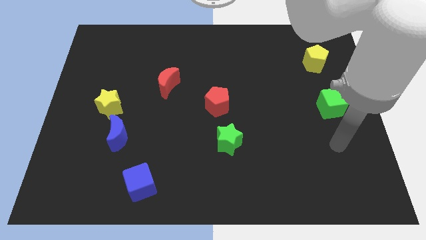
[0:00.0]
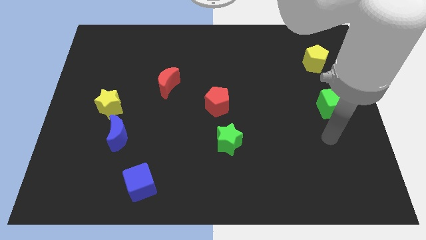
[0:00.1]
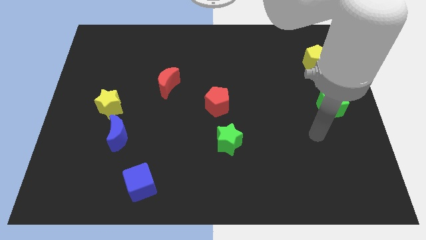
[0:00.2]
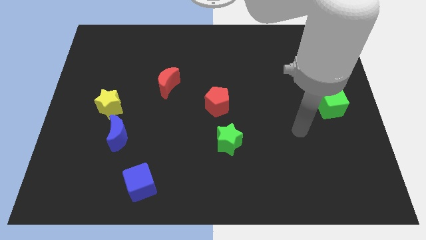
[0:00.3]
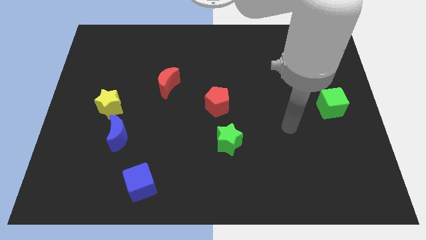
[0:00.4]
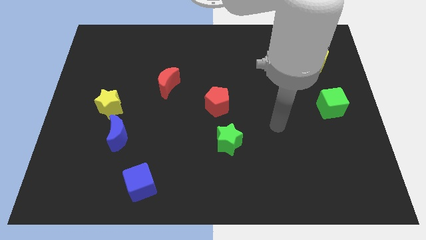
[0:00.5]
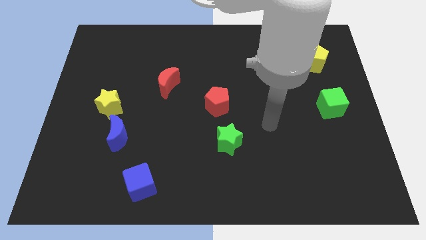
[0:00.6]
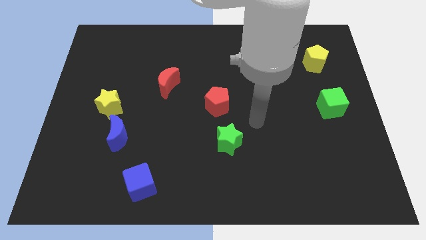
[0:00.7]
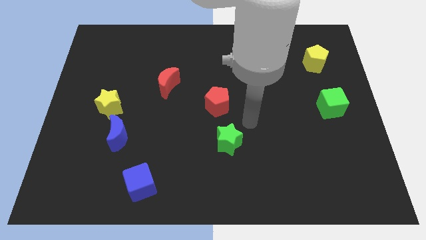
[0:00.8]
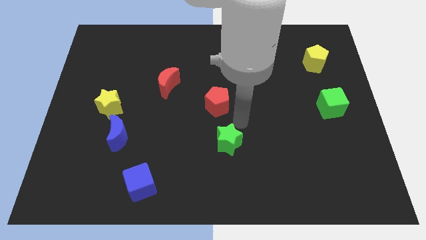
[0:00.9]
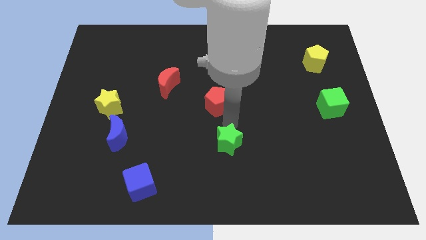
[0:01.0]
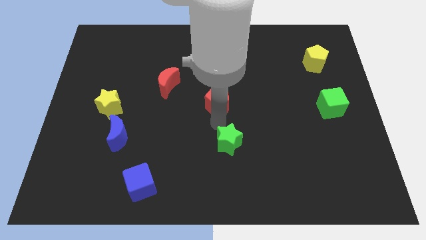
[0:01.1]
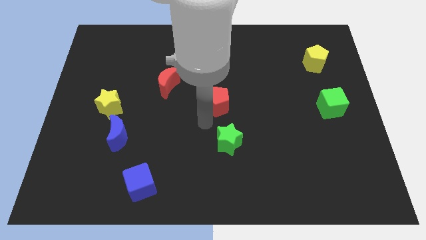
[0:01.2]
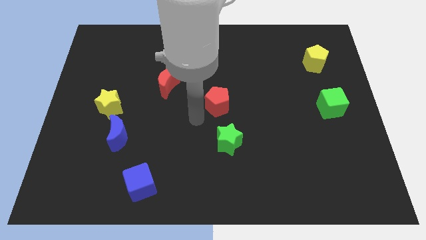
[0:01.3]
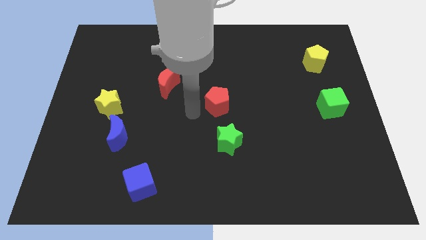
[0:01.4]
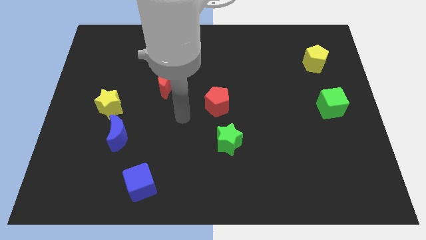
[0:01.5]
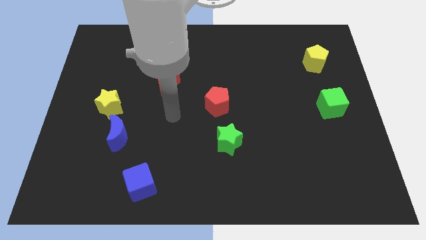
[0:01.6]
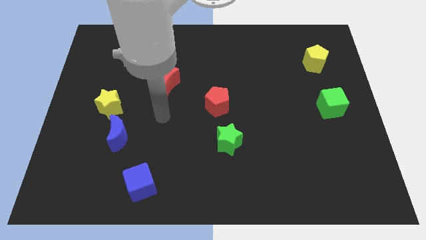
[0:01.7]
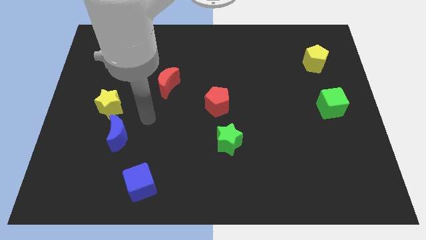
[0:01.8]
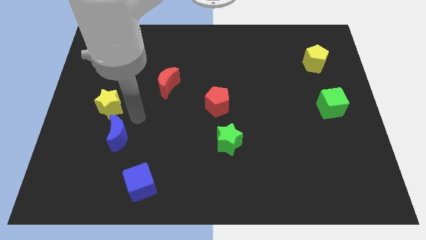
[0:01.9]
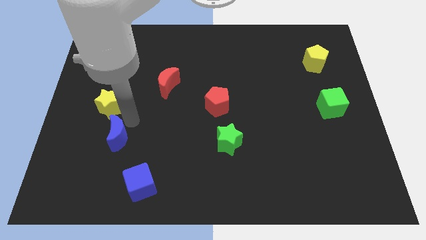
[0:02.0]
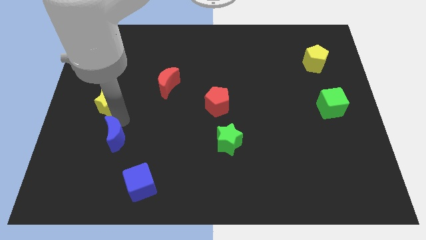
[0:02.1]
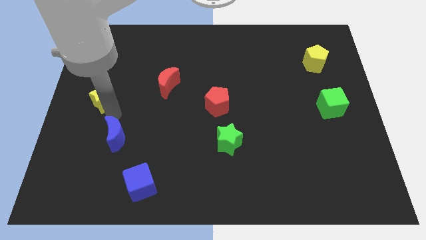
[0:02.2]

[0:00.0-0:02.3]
pull the blue moon apart from the yellow star

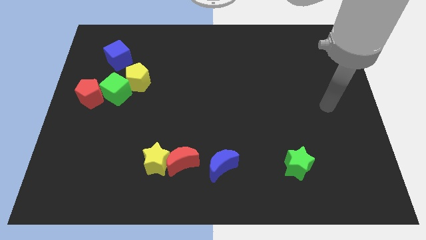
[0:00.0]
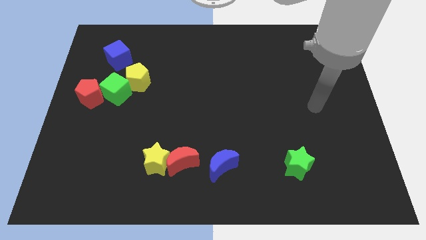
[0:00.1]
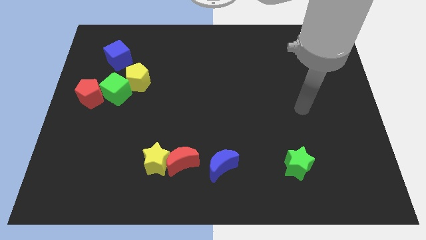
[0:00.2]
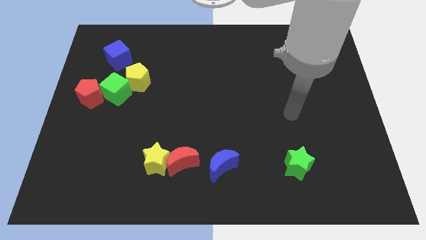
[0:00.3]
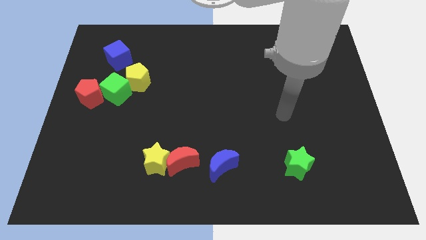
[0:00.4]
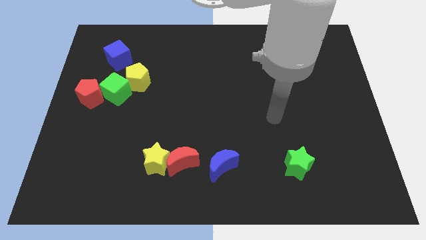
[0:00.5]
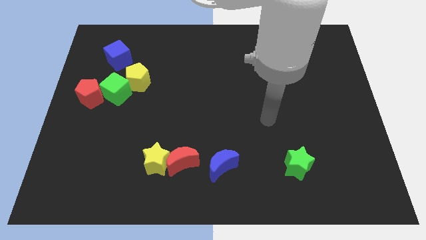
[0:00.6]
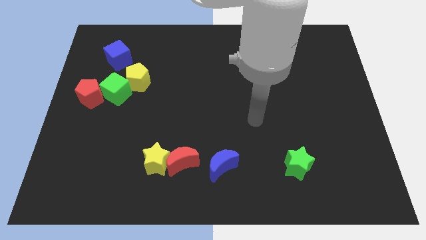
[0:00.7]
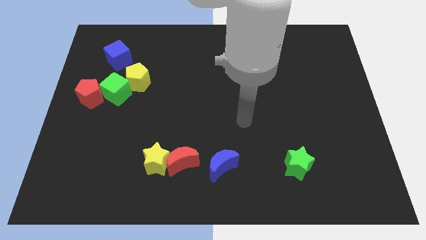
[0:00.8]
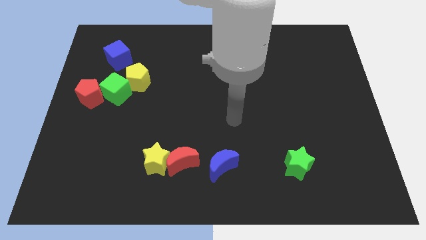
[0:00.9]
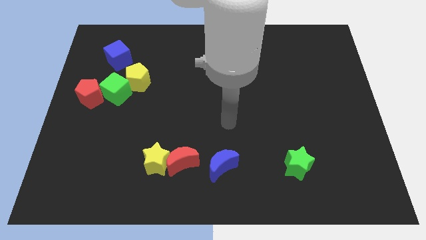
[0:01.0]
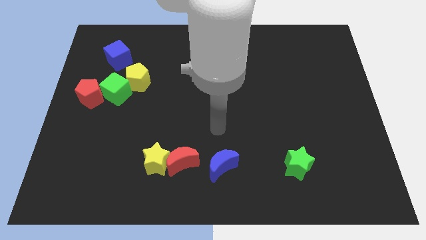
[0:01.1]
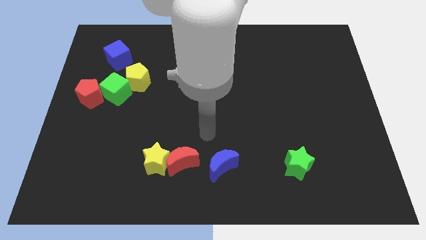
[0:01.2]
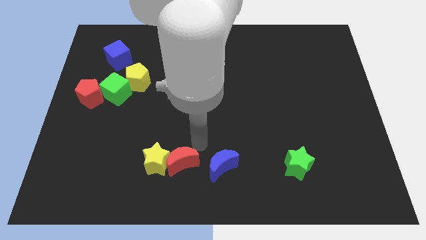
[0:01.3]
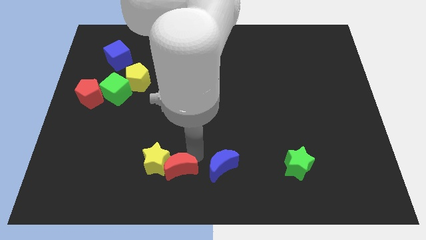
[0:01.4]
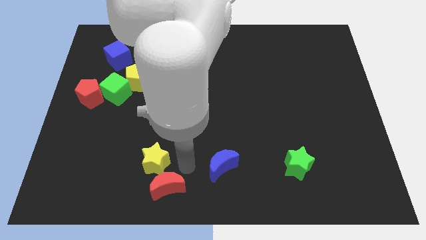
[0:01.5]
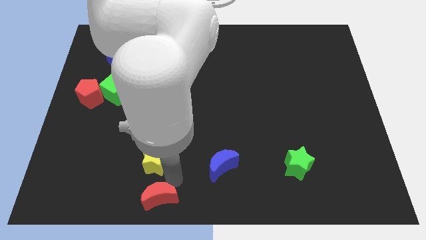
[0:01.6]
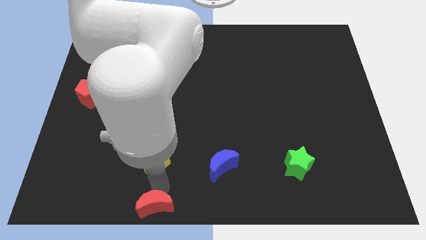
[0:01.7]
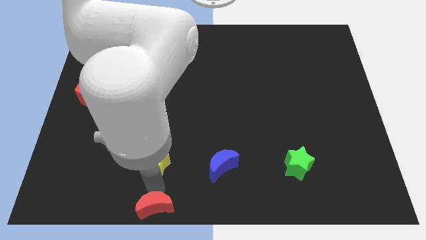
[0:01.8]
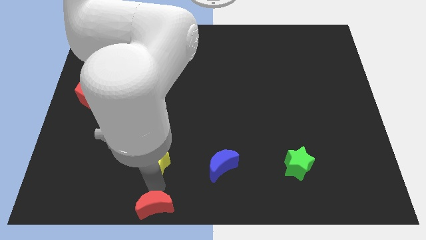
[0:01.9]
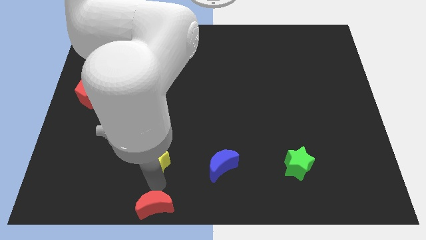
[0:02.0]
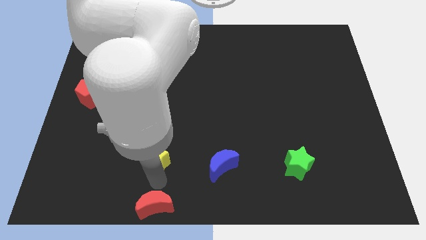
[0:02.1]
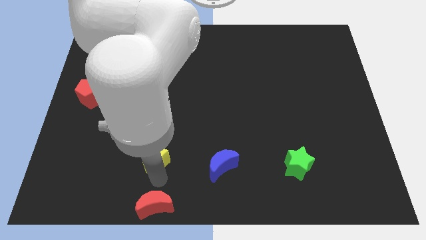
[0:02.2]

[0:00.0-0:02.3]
move the yellow star away from the red moon

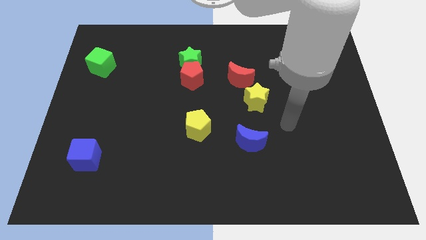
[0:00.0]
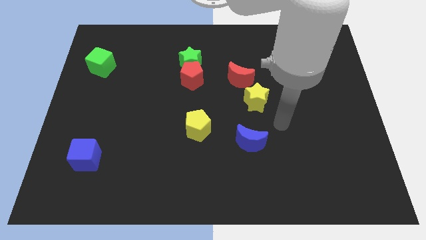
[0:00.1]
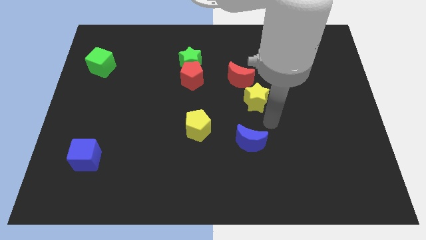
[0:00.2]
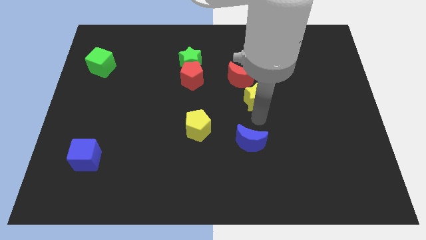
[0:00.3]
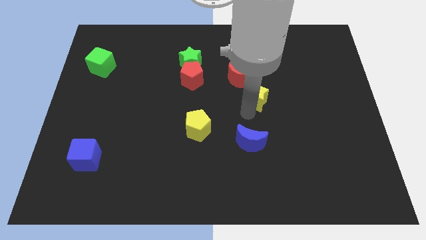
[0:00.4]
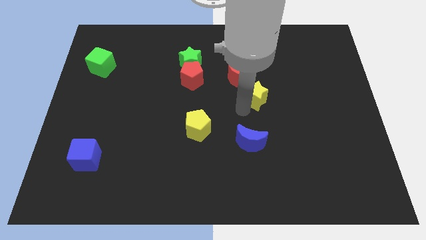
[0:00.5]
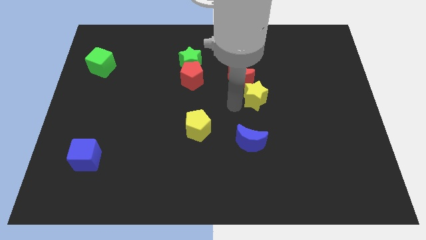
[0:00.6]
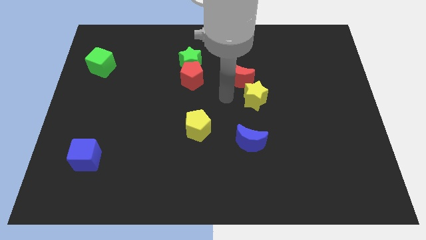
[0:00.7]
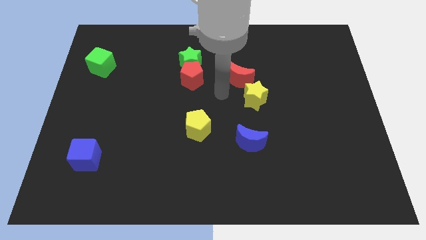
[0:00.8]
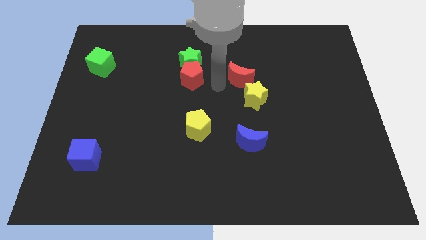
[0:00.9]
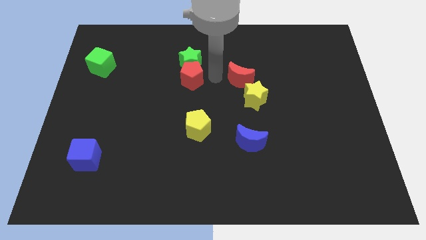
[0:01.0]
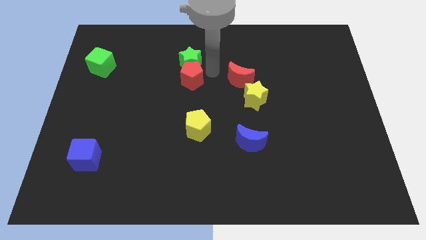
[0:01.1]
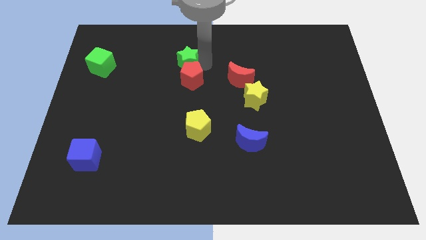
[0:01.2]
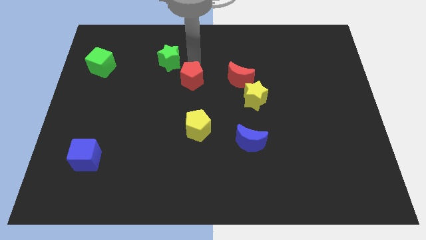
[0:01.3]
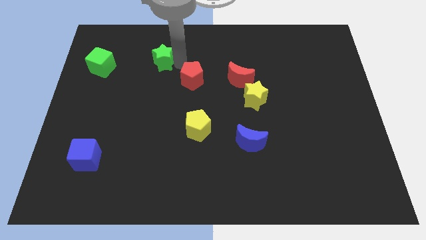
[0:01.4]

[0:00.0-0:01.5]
pull the red pentagon apart from the green star

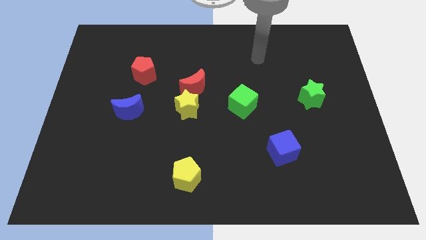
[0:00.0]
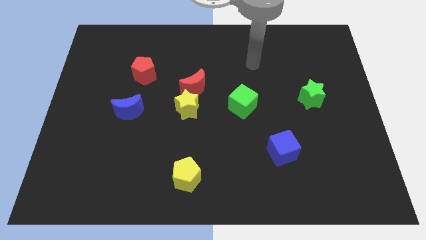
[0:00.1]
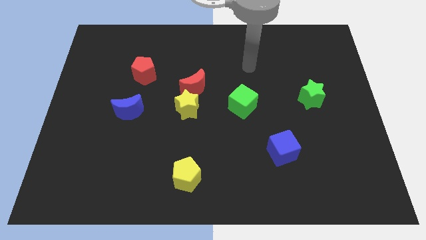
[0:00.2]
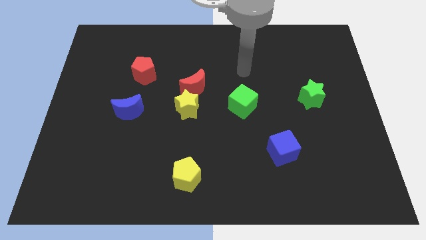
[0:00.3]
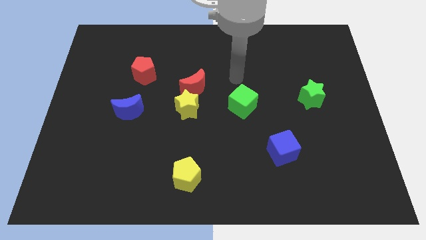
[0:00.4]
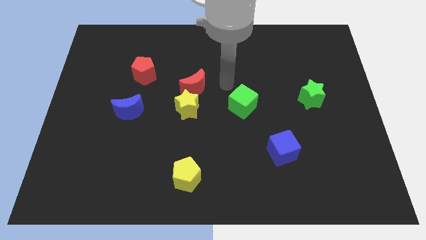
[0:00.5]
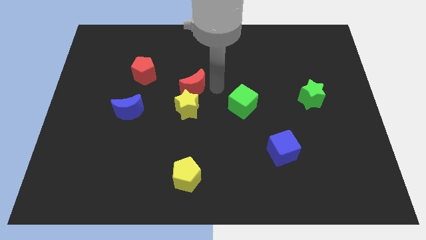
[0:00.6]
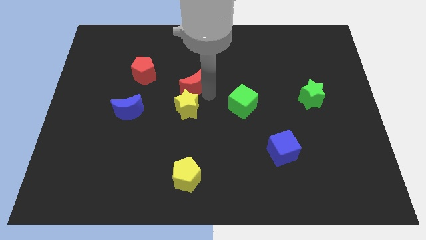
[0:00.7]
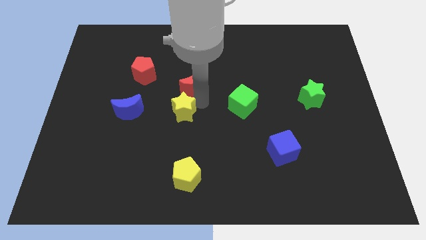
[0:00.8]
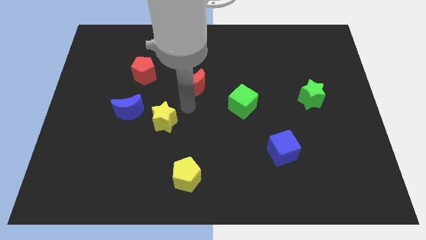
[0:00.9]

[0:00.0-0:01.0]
separate the red moon from the yellow star

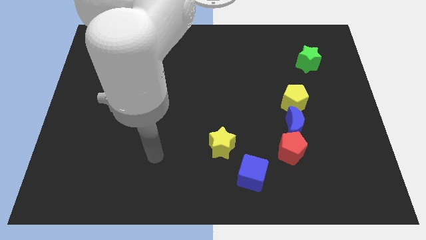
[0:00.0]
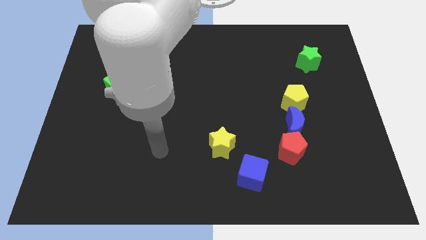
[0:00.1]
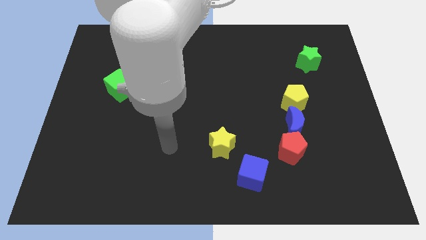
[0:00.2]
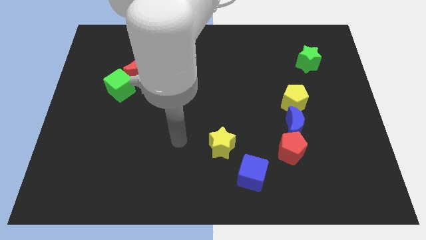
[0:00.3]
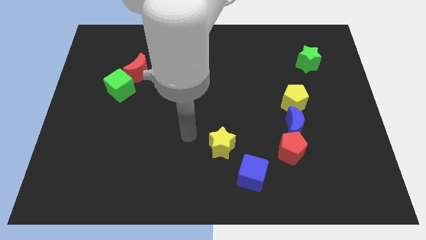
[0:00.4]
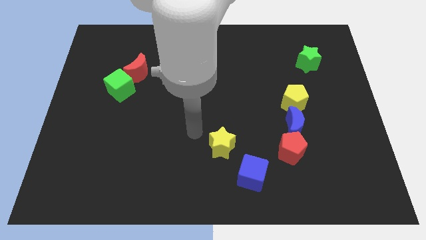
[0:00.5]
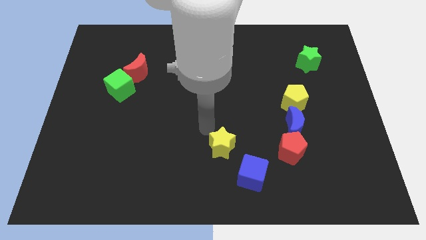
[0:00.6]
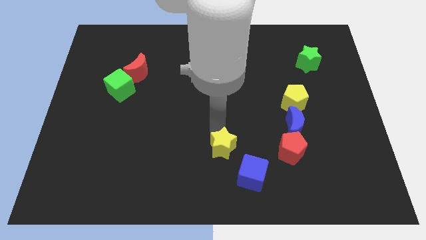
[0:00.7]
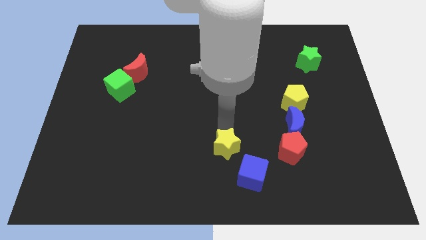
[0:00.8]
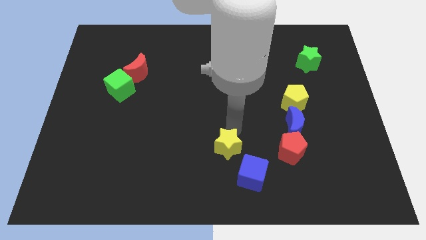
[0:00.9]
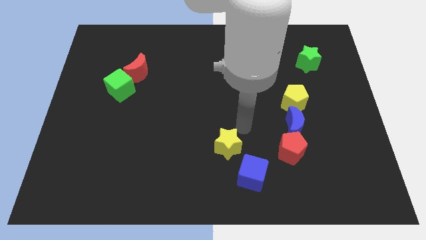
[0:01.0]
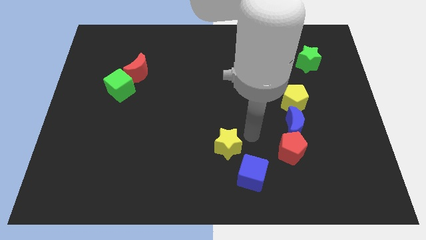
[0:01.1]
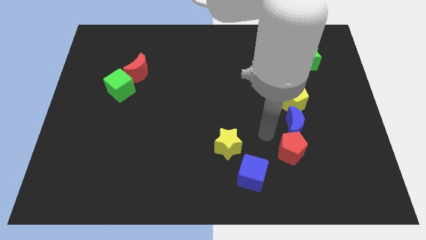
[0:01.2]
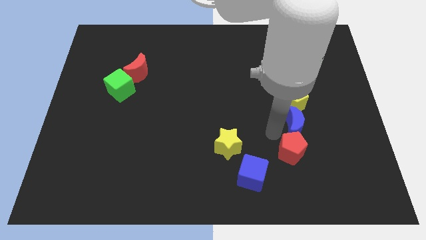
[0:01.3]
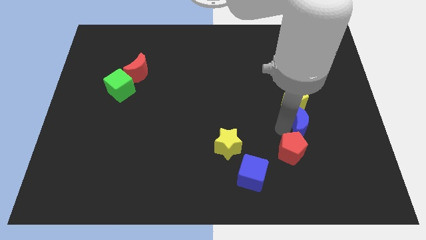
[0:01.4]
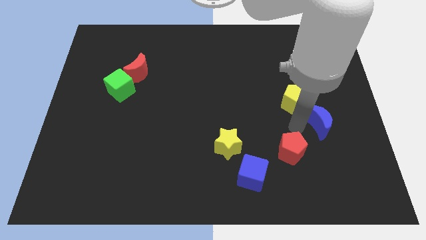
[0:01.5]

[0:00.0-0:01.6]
pull the red pentagon apart from the blue moon

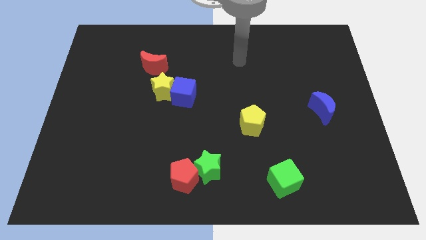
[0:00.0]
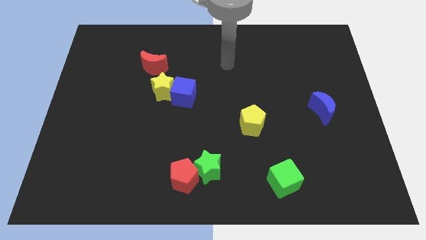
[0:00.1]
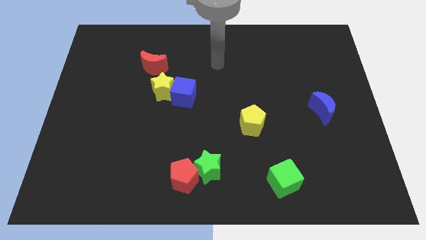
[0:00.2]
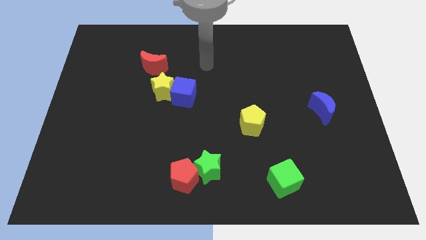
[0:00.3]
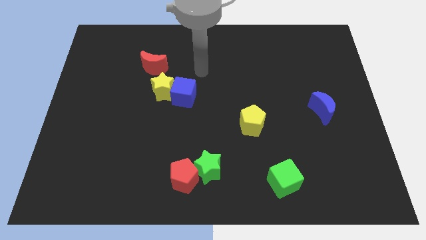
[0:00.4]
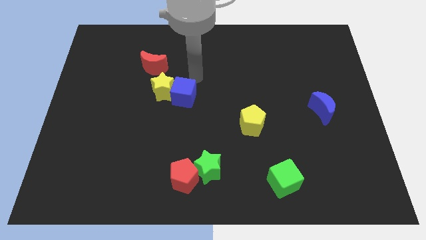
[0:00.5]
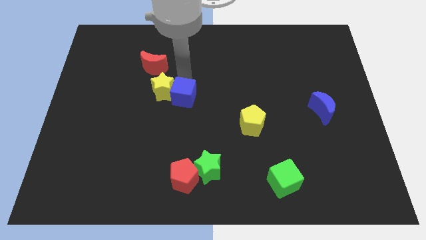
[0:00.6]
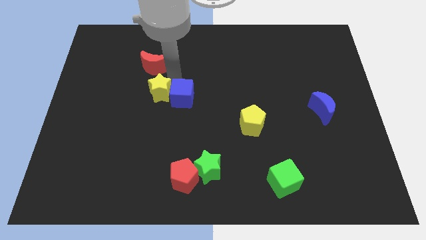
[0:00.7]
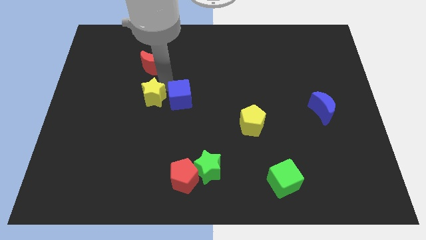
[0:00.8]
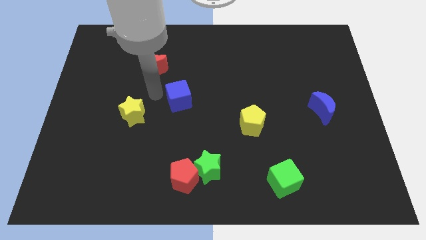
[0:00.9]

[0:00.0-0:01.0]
separate the blue cube from the yellow star
